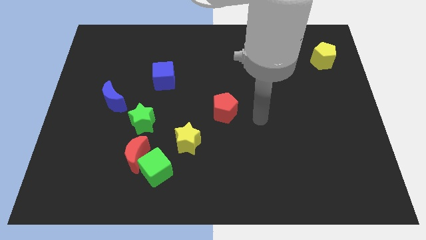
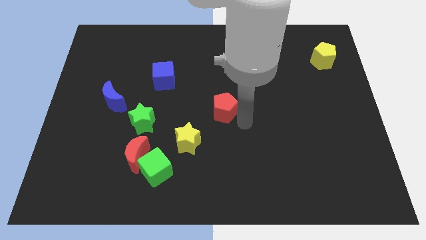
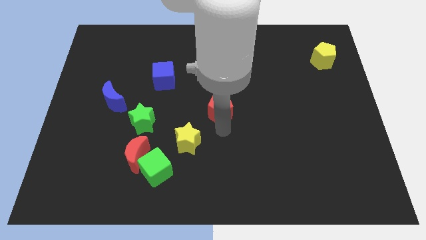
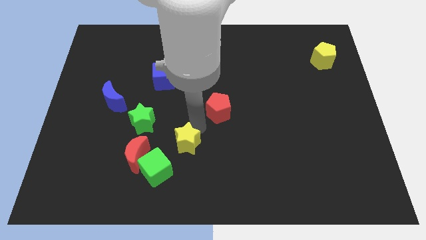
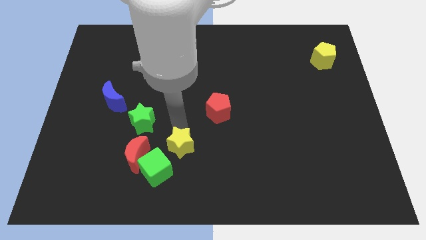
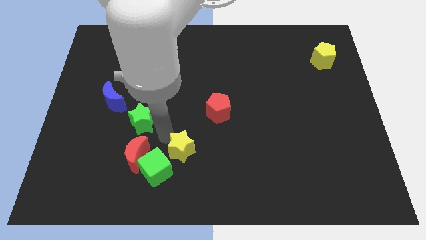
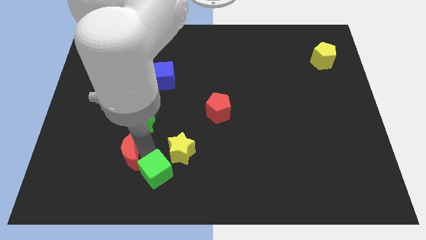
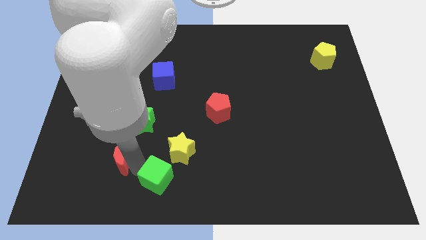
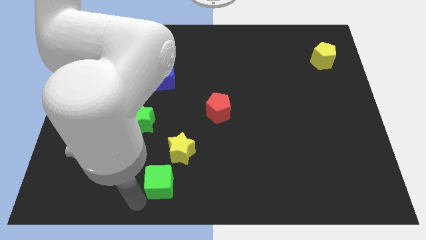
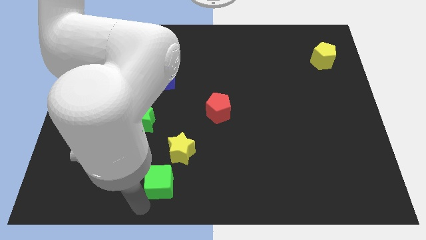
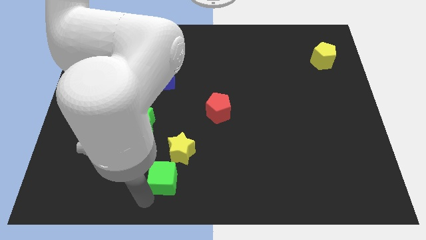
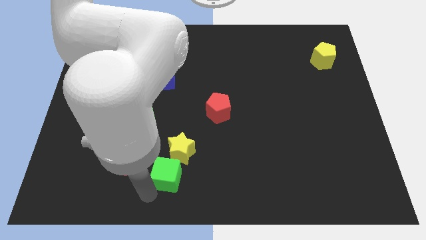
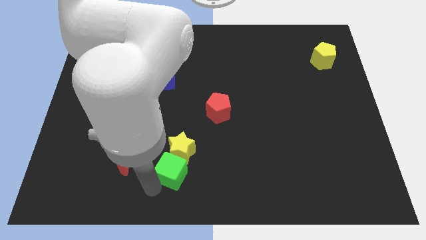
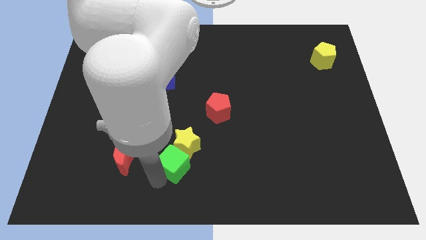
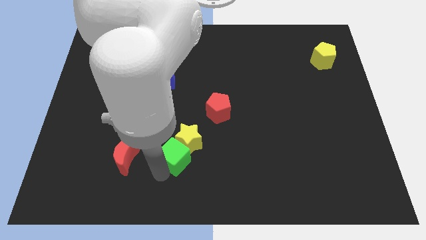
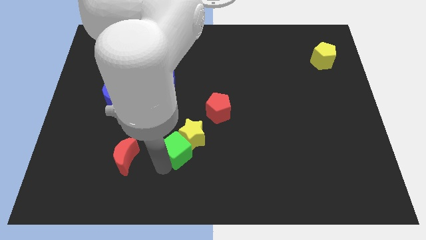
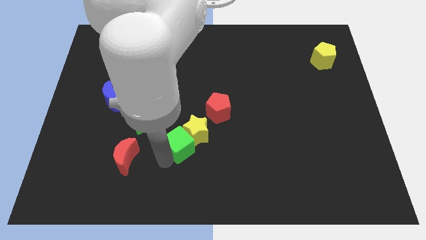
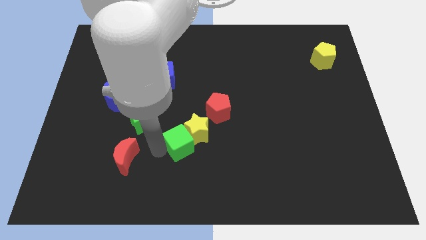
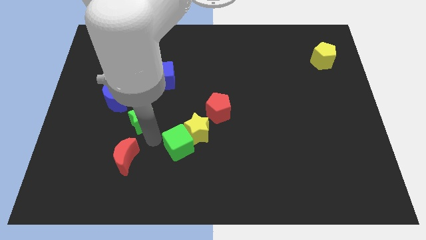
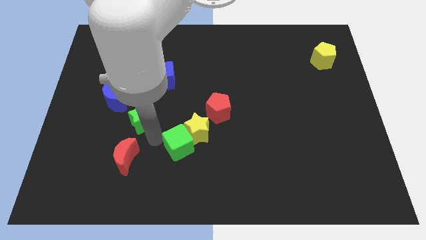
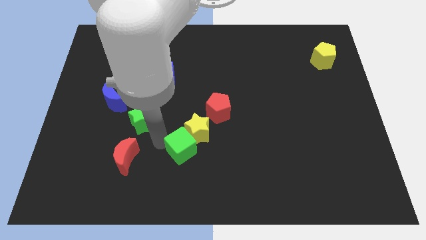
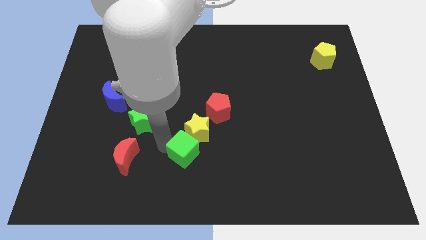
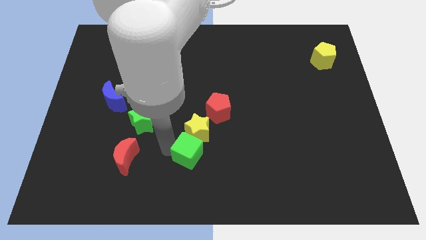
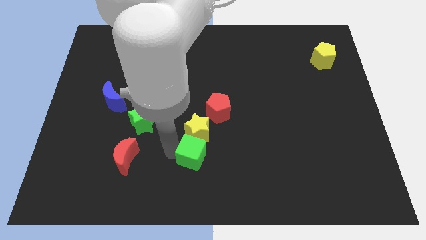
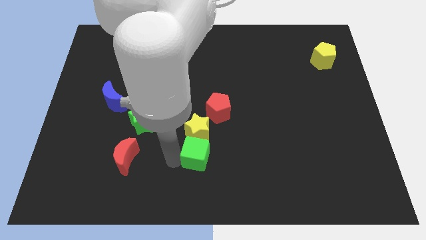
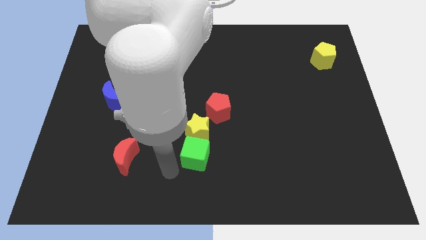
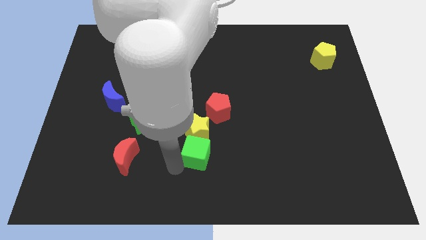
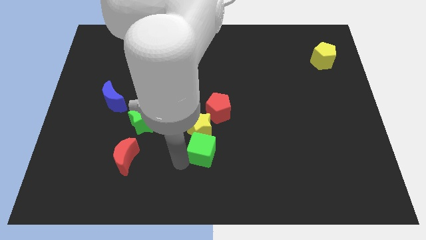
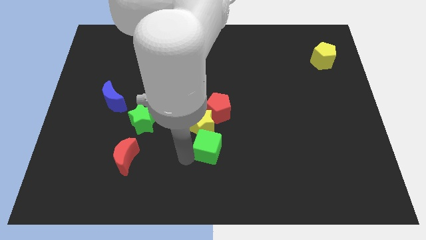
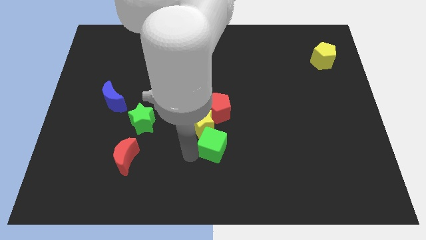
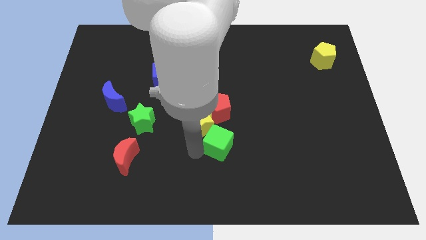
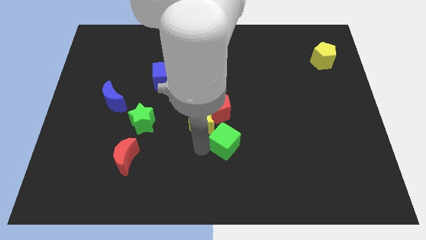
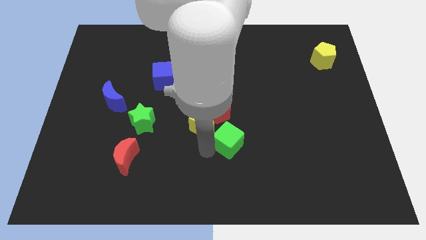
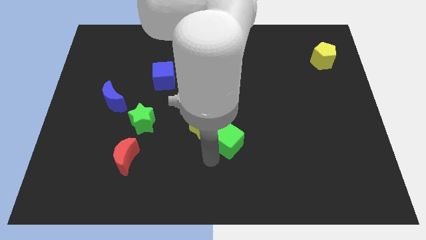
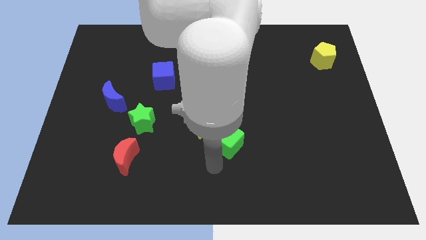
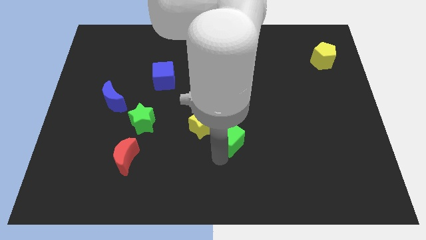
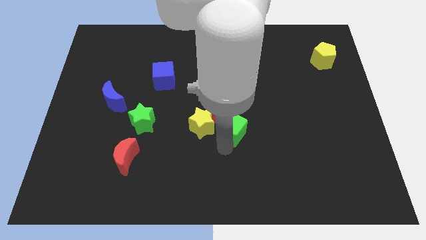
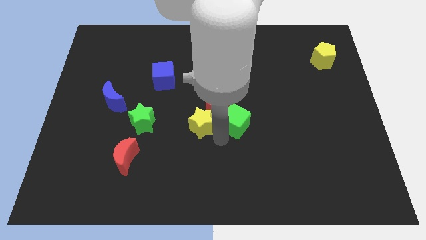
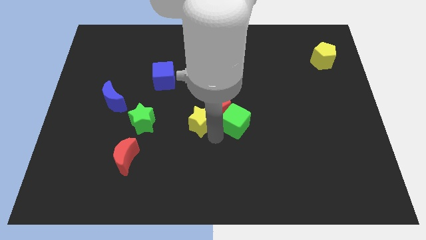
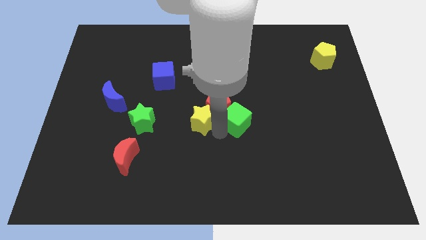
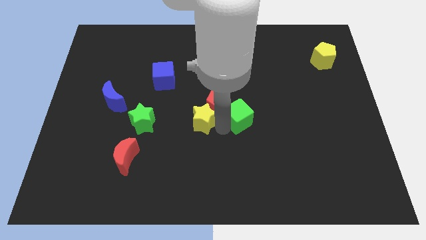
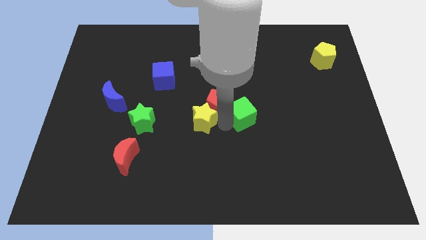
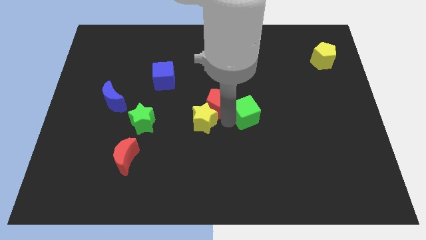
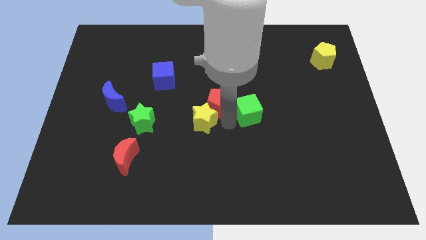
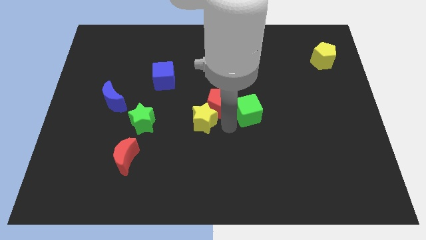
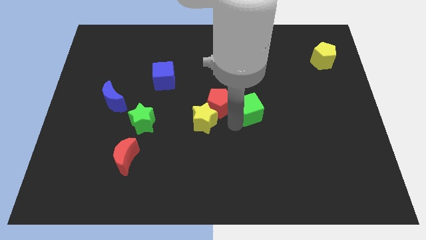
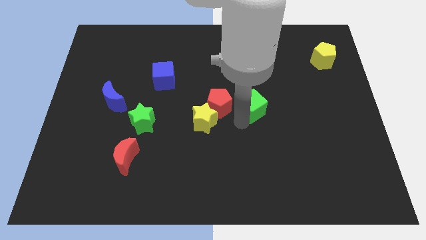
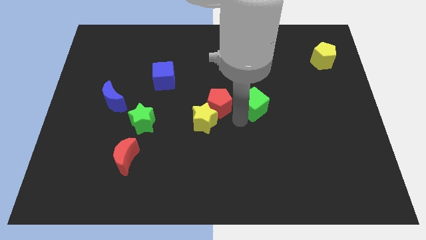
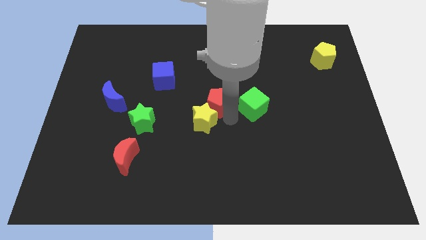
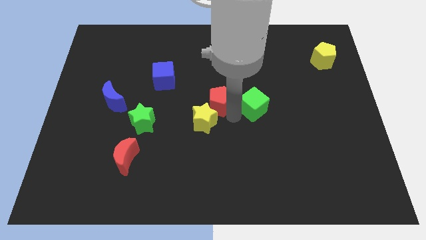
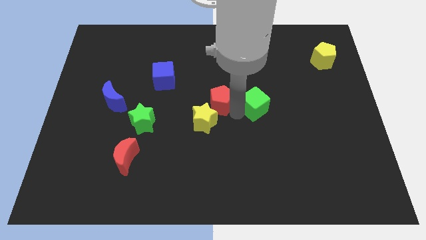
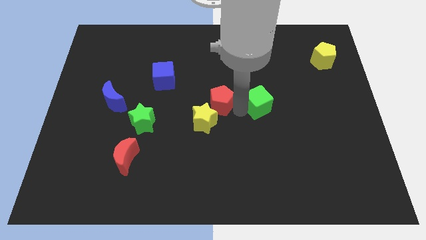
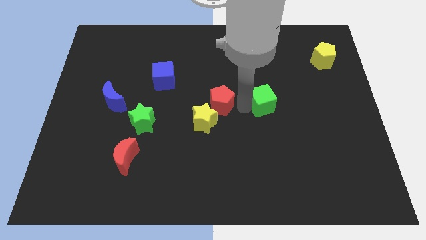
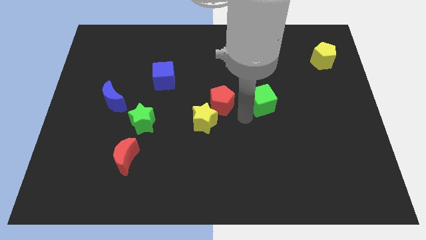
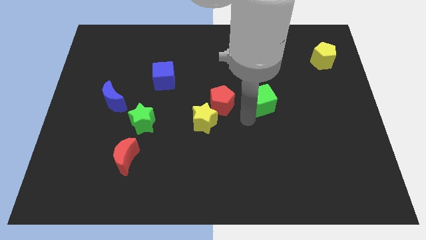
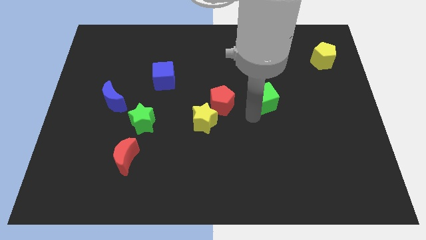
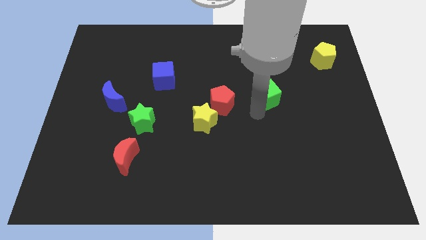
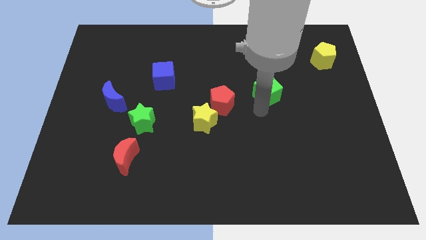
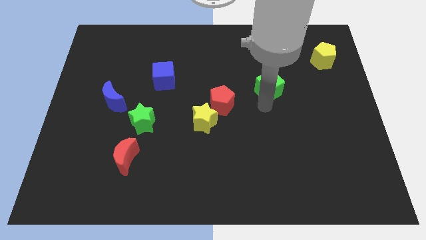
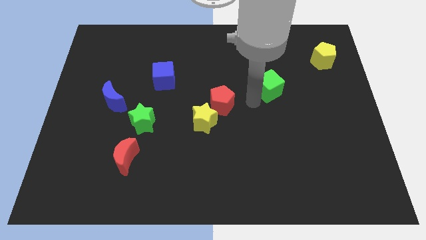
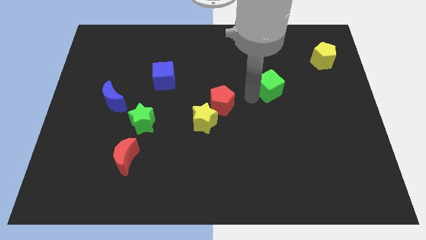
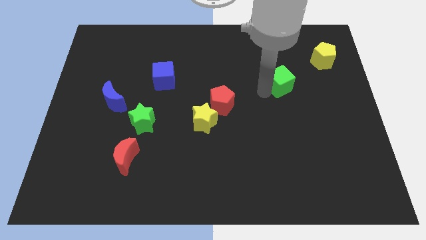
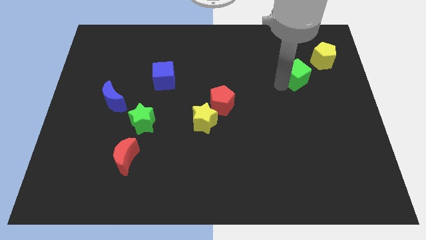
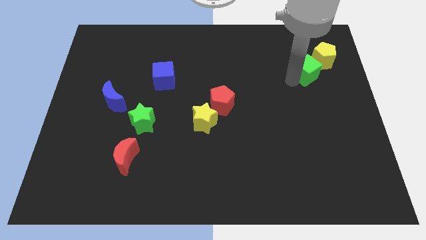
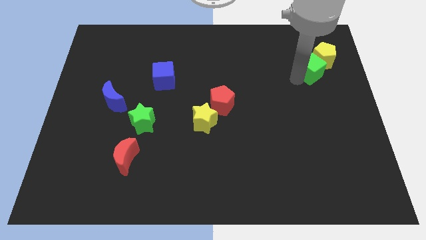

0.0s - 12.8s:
put the green cube next to the yellow pentagon

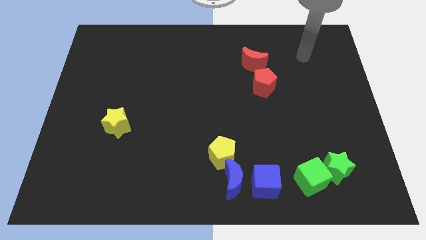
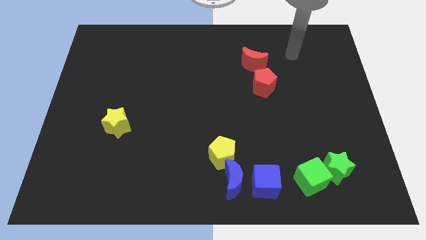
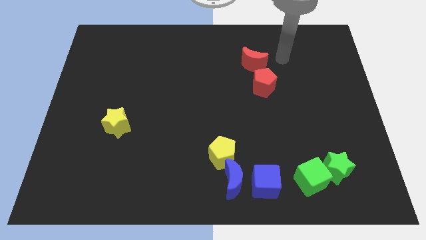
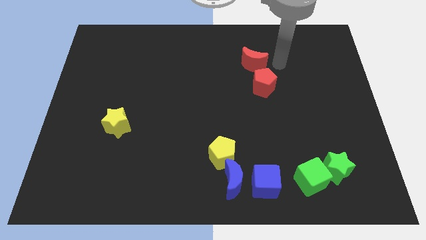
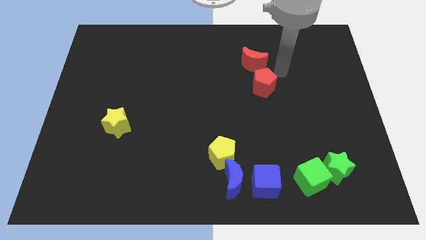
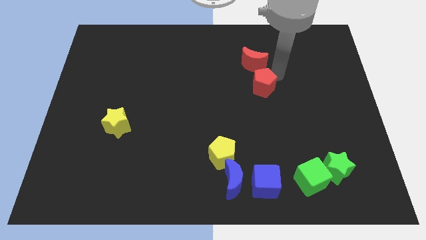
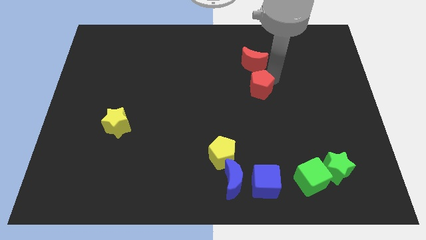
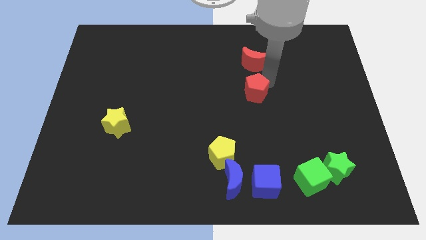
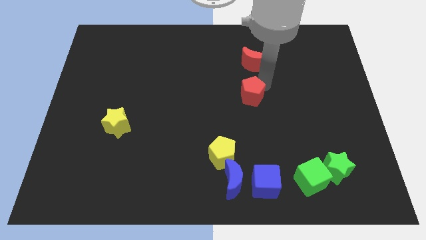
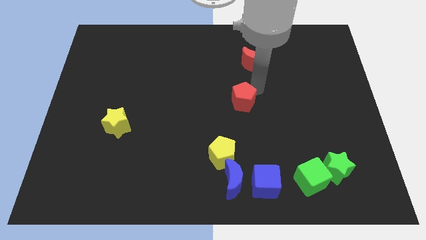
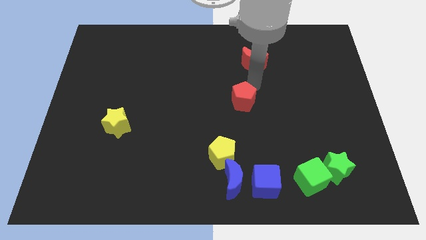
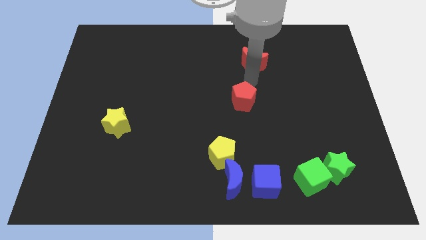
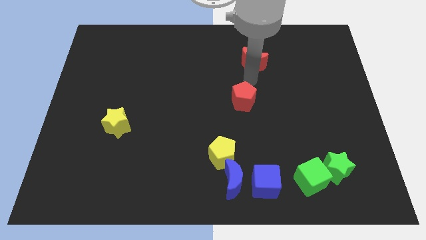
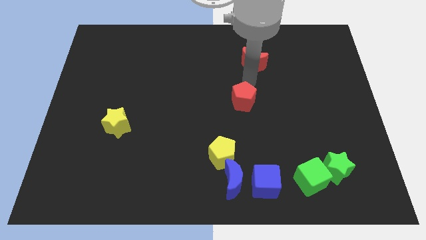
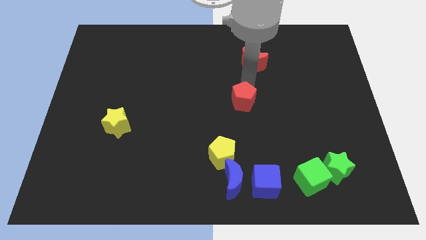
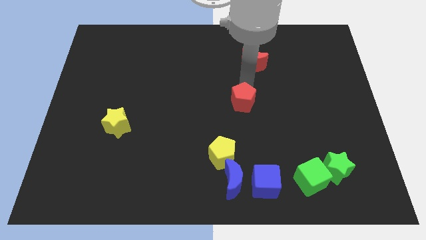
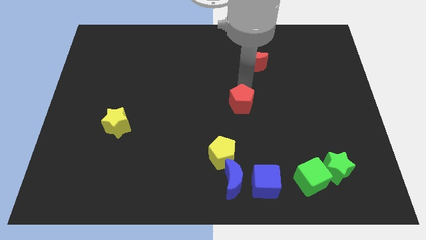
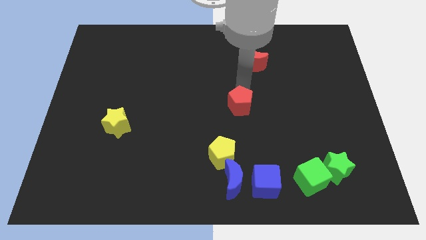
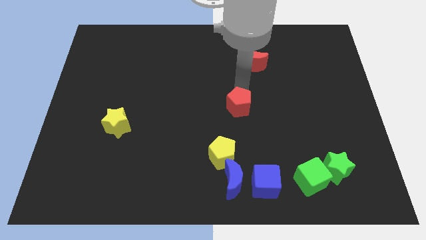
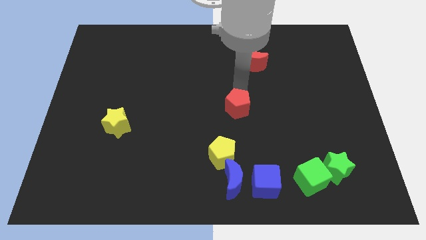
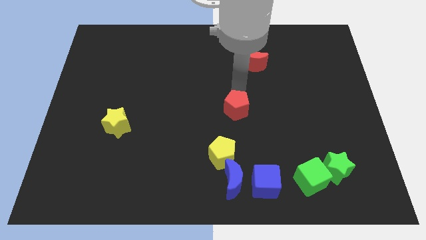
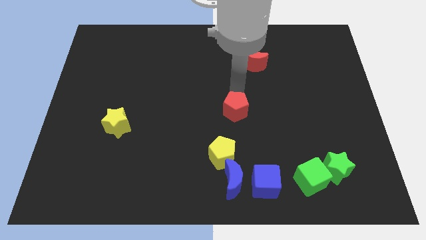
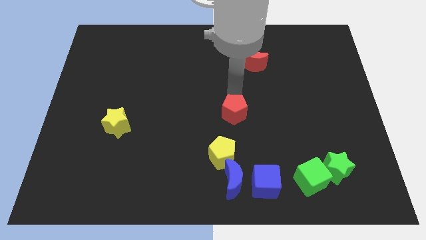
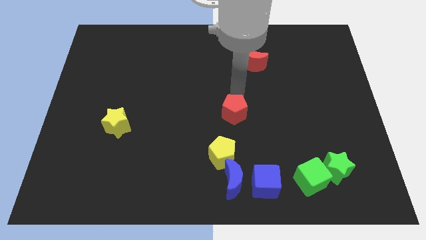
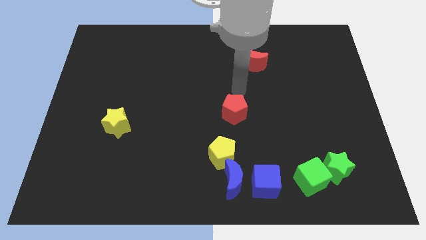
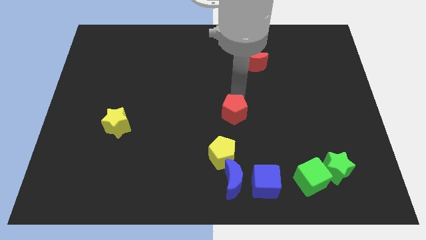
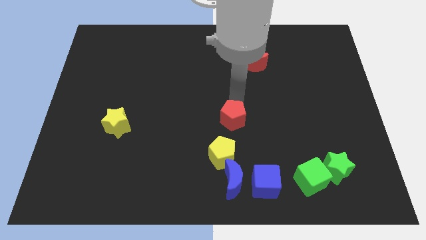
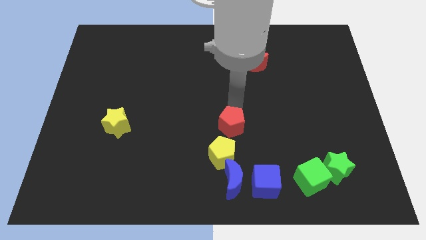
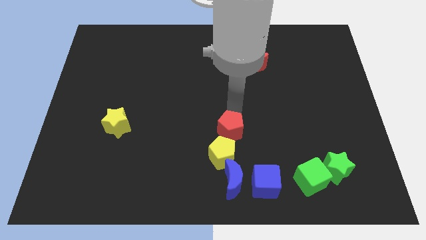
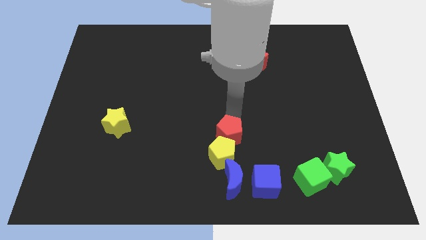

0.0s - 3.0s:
push the red pentagon towards the yellow pentagon
